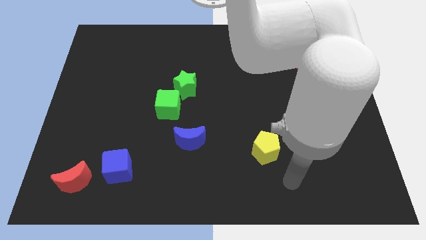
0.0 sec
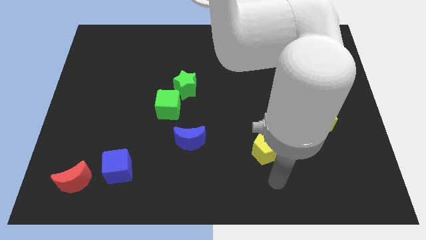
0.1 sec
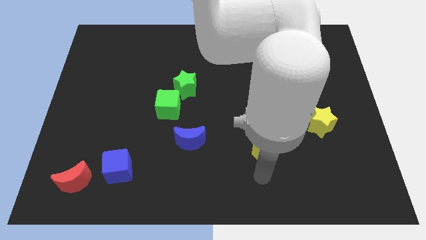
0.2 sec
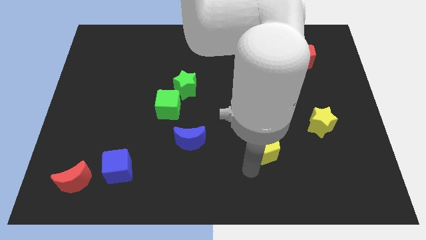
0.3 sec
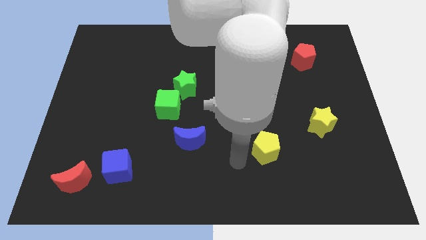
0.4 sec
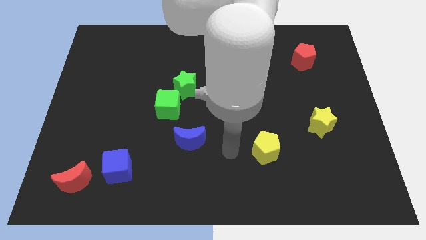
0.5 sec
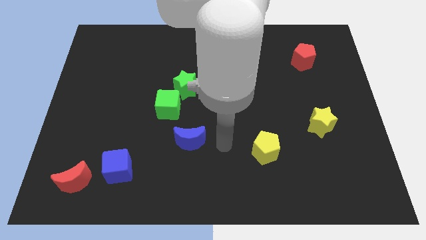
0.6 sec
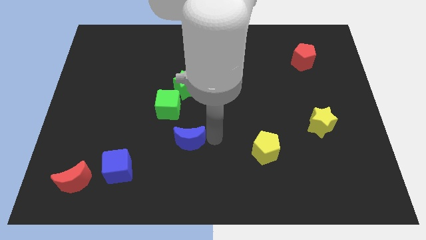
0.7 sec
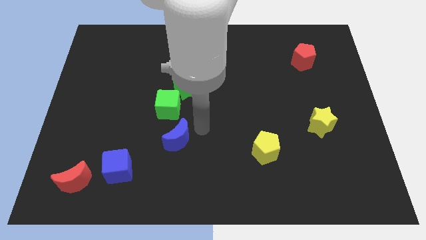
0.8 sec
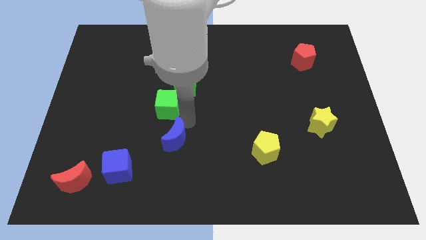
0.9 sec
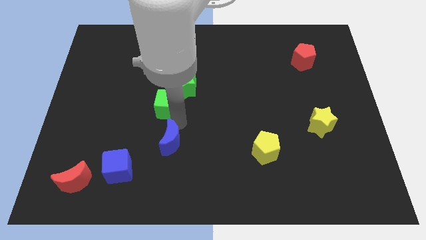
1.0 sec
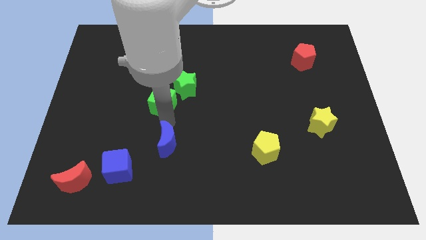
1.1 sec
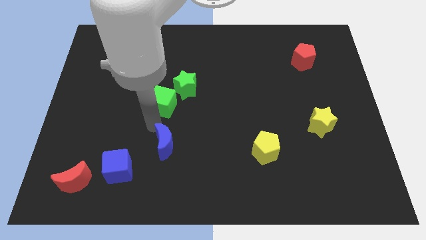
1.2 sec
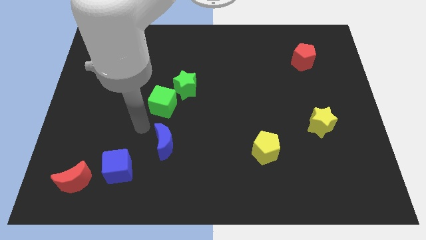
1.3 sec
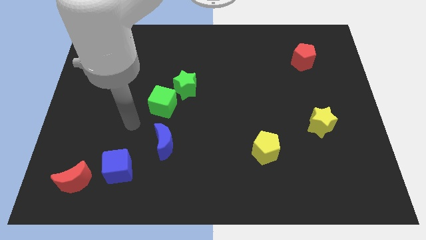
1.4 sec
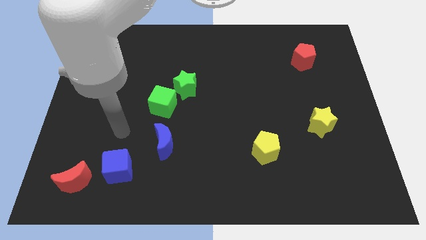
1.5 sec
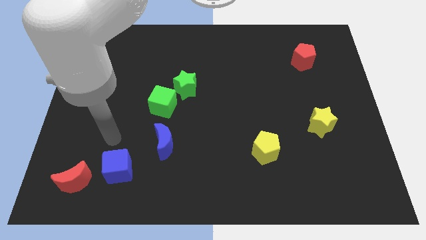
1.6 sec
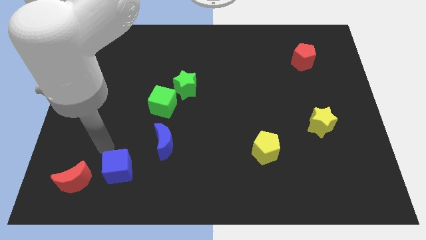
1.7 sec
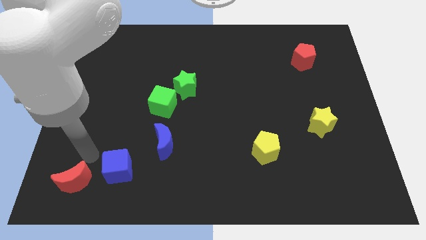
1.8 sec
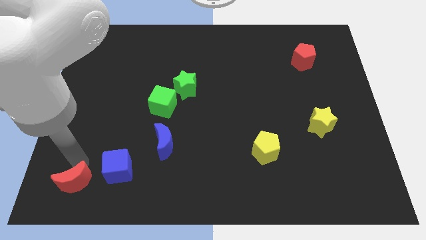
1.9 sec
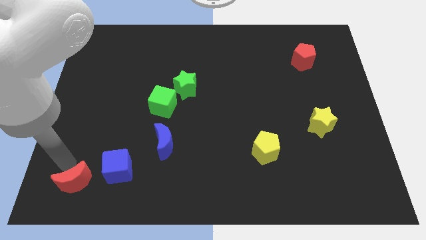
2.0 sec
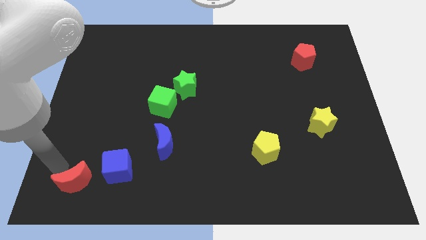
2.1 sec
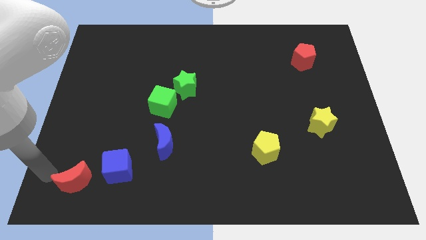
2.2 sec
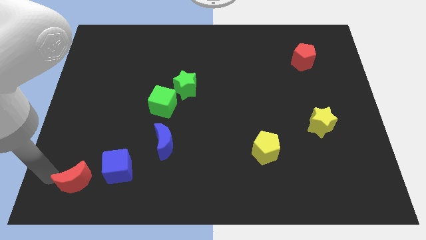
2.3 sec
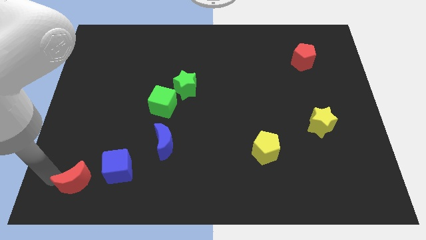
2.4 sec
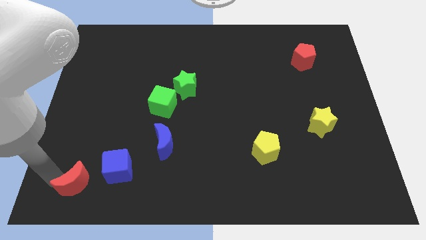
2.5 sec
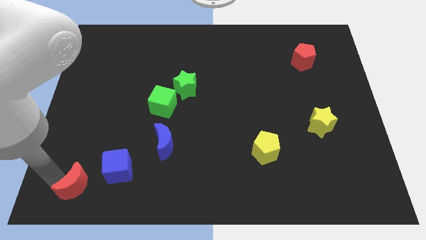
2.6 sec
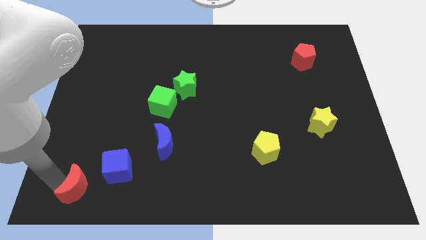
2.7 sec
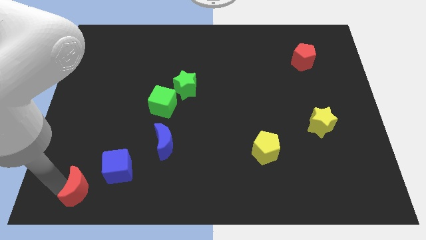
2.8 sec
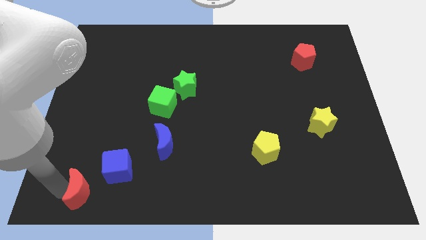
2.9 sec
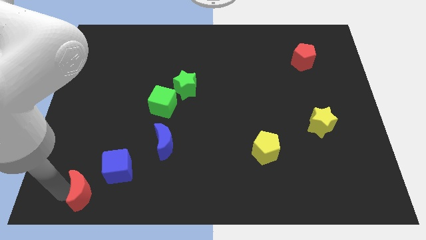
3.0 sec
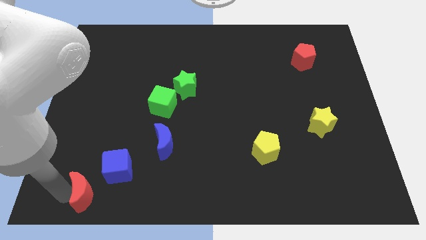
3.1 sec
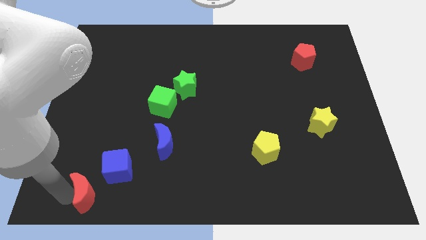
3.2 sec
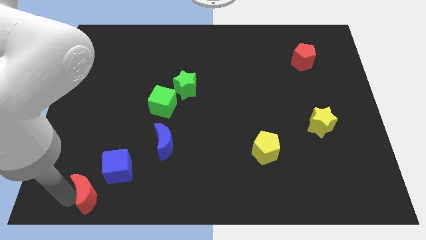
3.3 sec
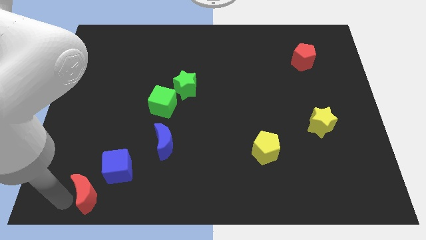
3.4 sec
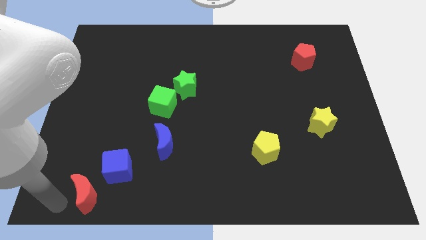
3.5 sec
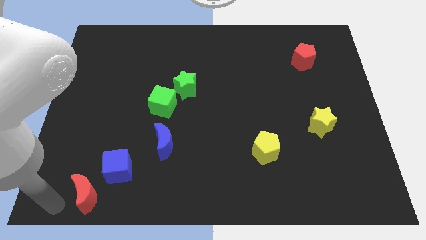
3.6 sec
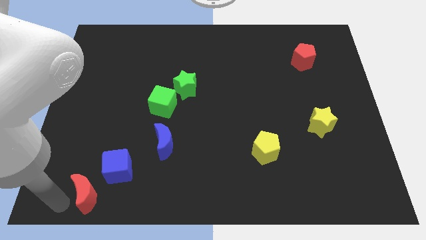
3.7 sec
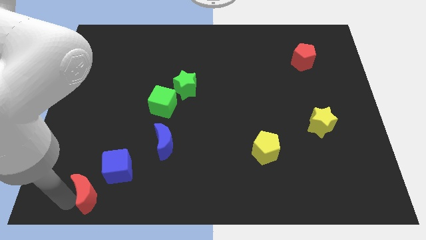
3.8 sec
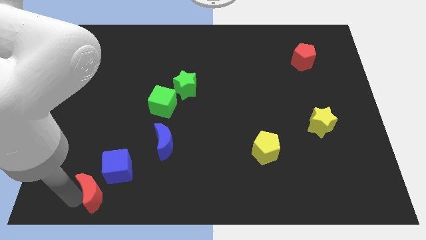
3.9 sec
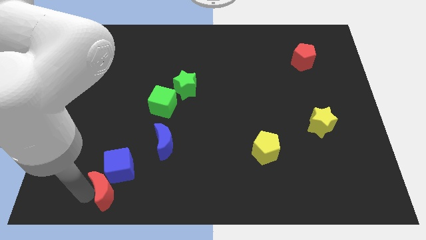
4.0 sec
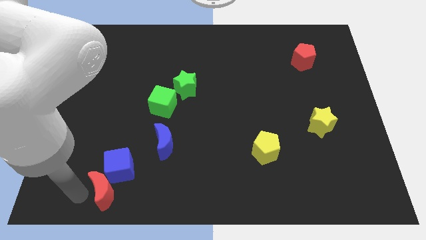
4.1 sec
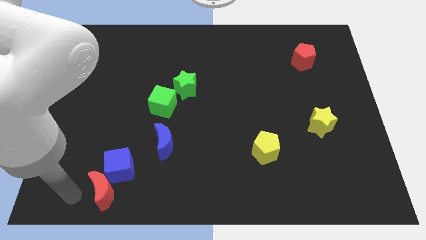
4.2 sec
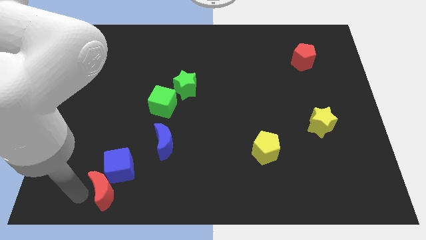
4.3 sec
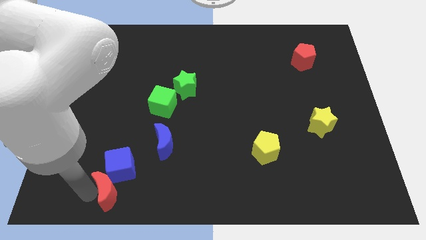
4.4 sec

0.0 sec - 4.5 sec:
slide the red moon to the right somewhat

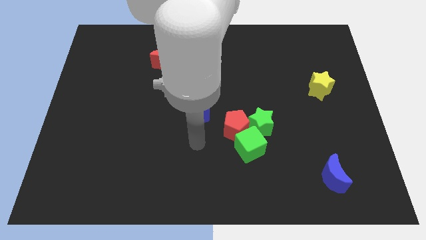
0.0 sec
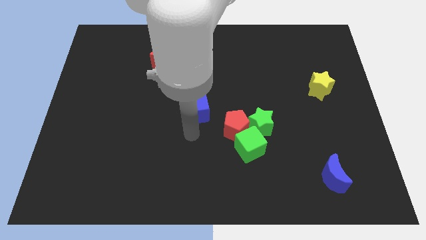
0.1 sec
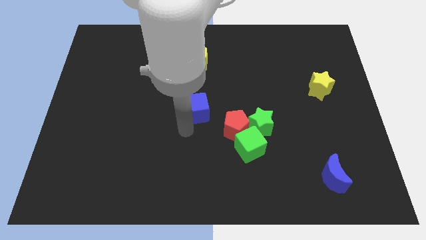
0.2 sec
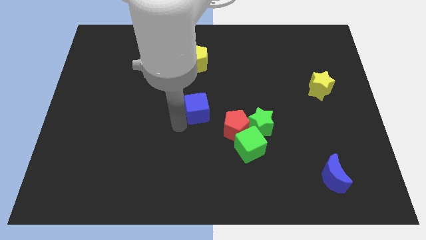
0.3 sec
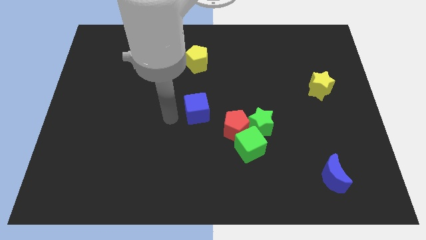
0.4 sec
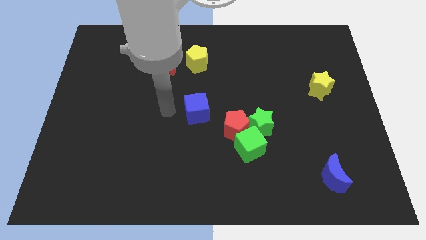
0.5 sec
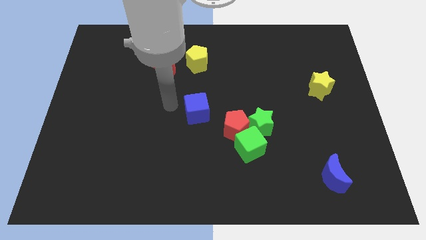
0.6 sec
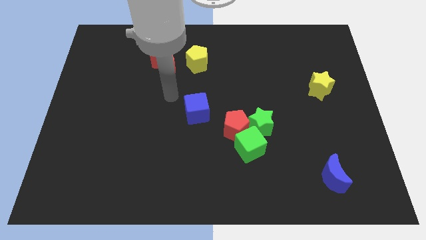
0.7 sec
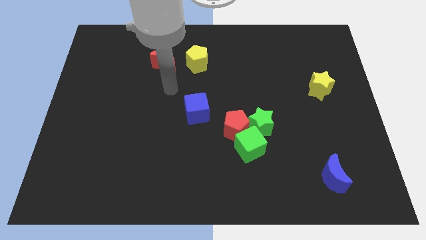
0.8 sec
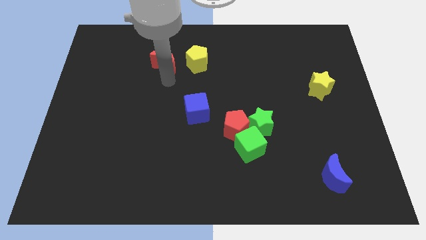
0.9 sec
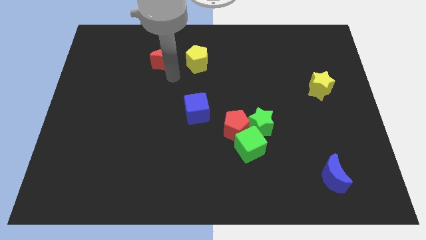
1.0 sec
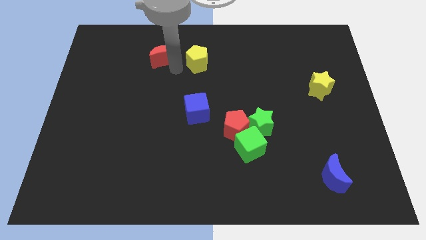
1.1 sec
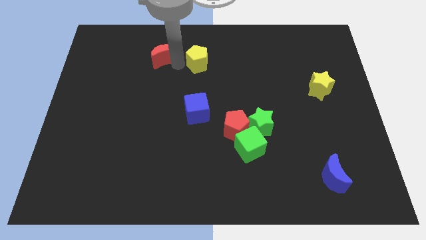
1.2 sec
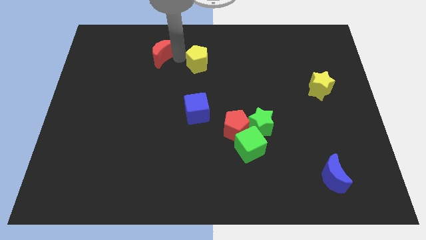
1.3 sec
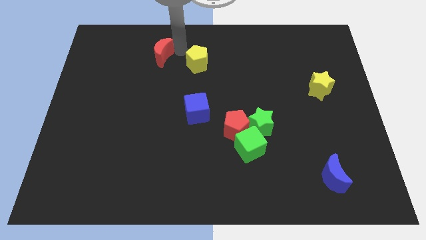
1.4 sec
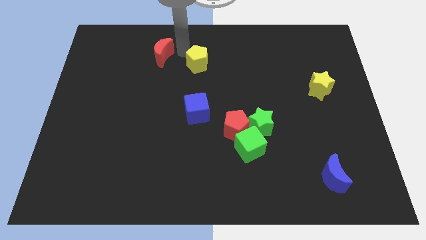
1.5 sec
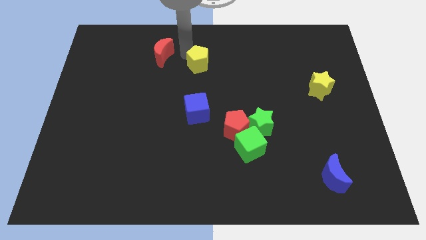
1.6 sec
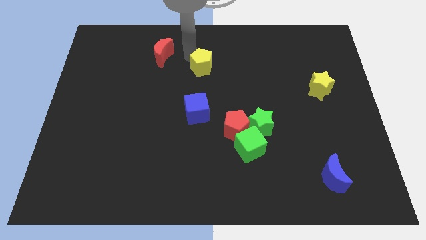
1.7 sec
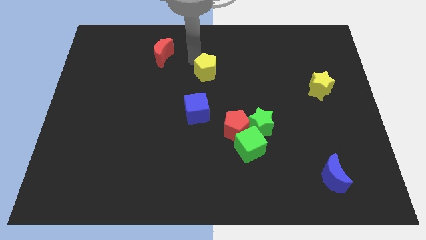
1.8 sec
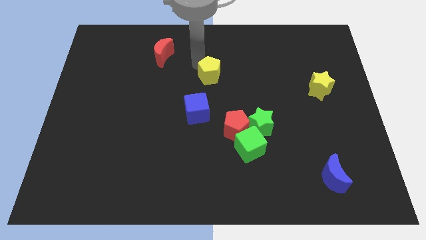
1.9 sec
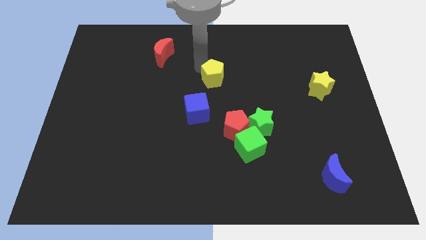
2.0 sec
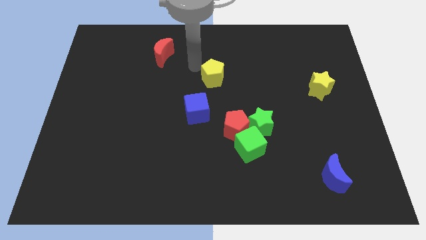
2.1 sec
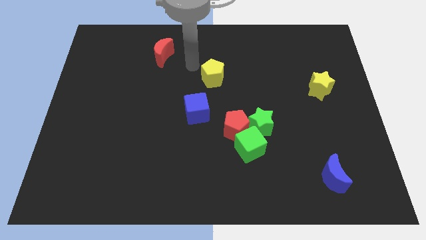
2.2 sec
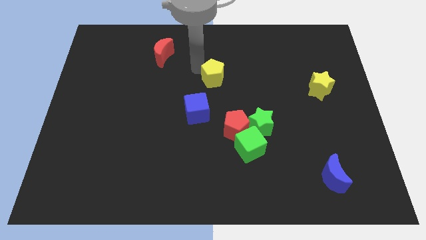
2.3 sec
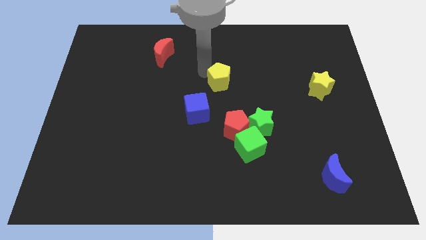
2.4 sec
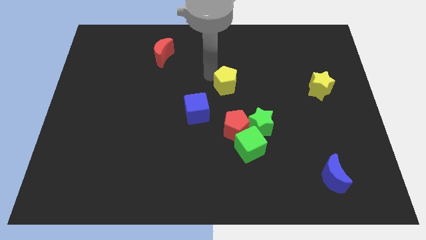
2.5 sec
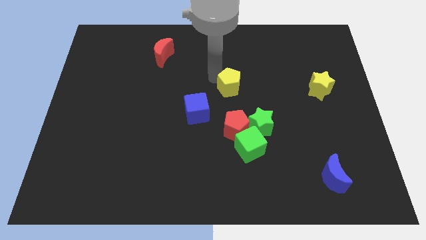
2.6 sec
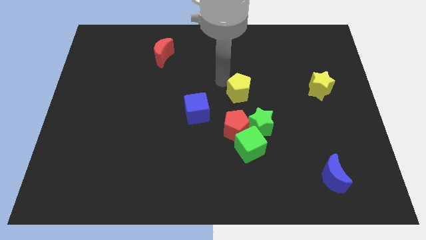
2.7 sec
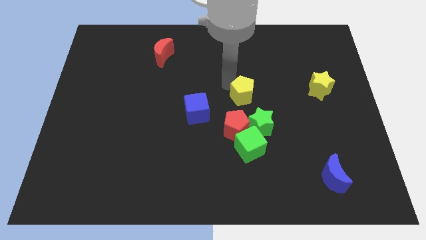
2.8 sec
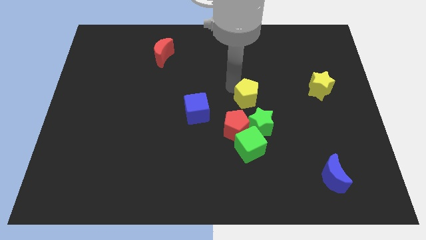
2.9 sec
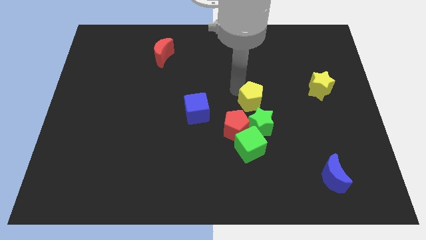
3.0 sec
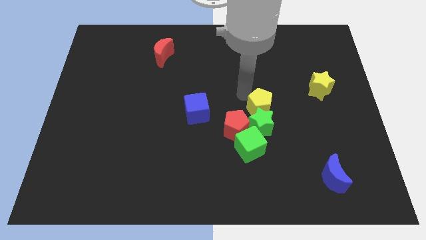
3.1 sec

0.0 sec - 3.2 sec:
slide the yellow pentagon downwards and then to the right

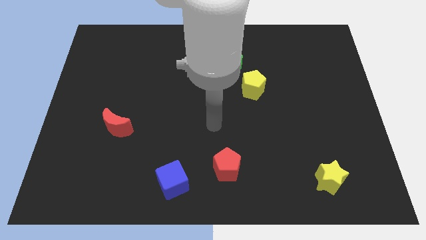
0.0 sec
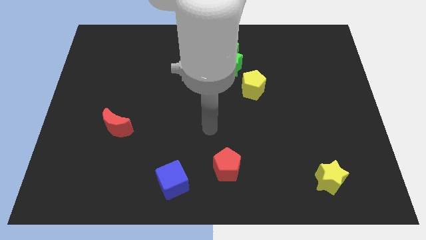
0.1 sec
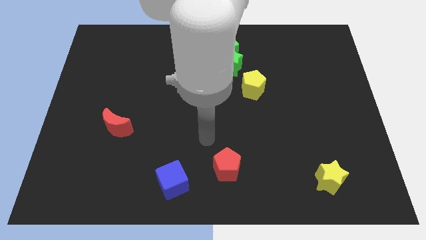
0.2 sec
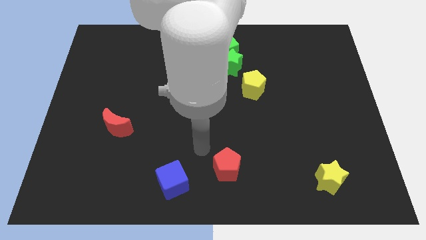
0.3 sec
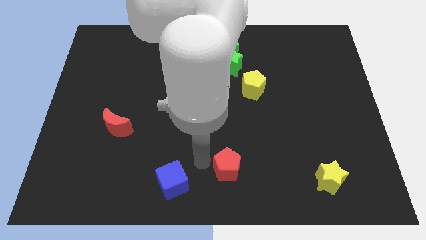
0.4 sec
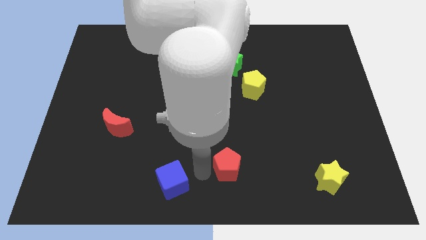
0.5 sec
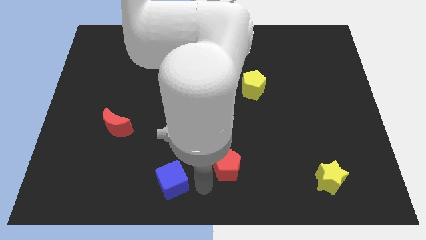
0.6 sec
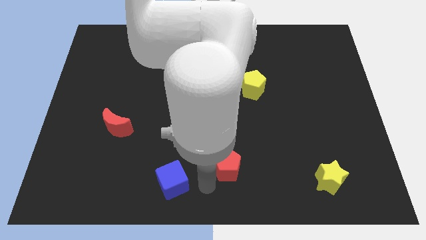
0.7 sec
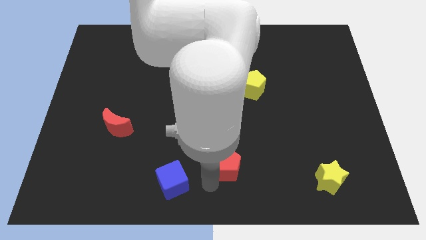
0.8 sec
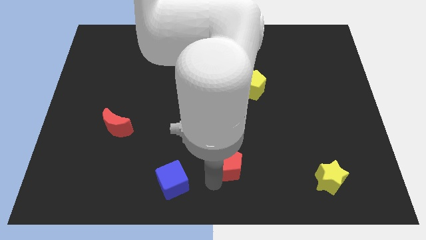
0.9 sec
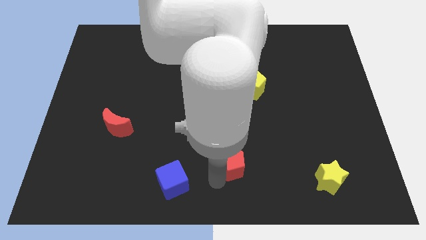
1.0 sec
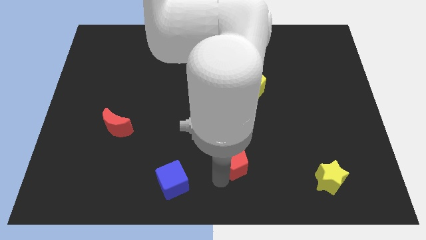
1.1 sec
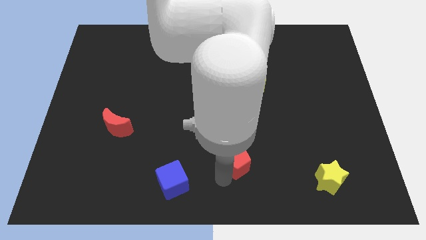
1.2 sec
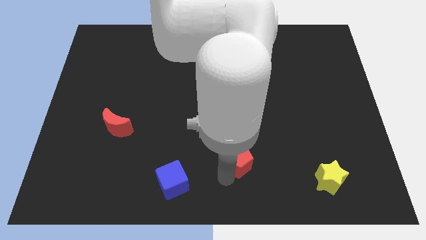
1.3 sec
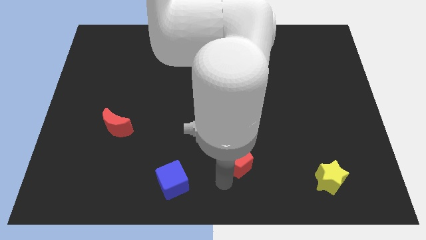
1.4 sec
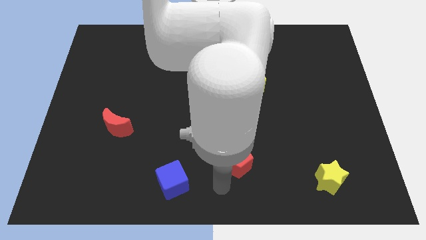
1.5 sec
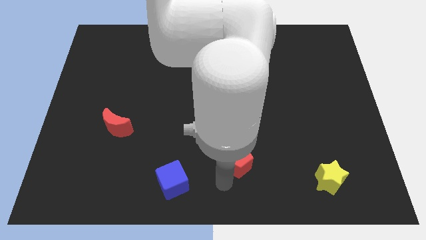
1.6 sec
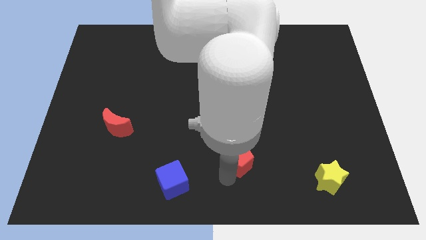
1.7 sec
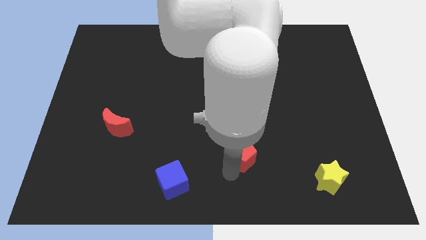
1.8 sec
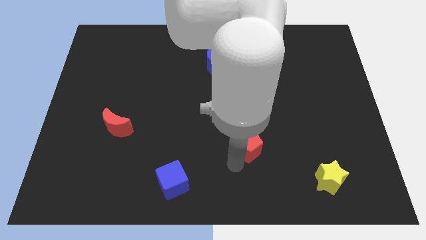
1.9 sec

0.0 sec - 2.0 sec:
slide the red pentagon a little bit up and to the right diagonally
